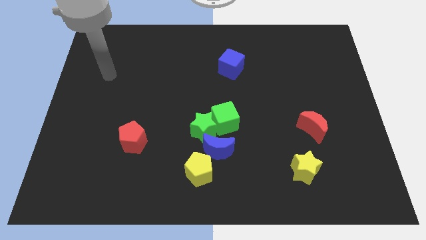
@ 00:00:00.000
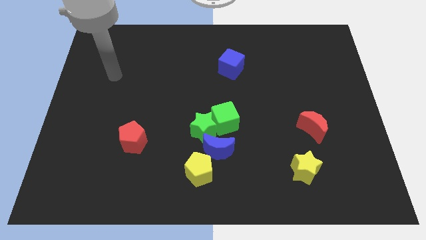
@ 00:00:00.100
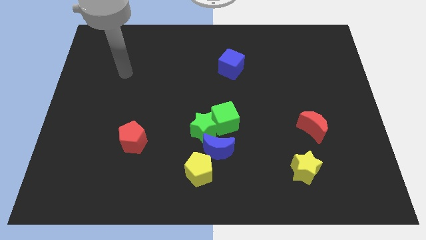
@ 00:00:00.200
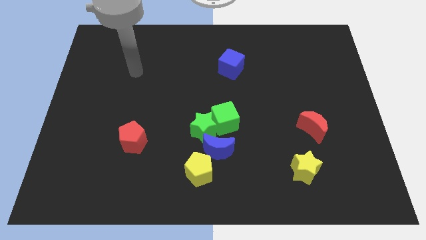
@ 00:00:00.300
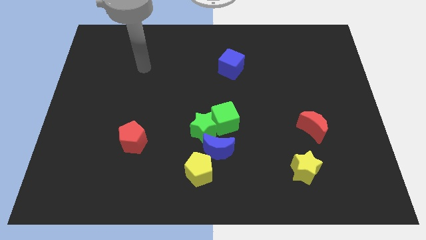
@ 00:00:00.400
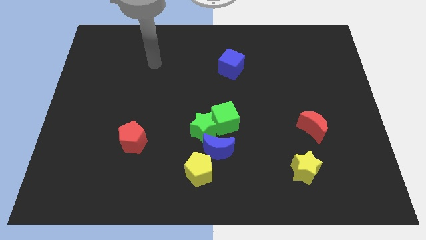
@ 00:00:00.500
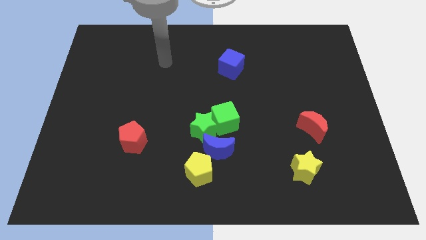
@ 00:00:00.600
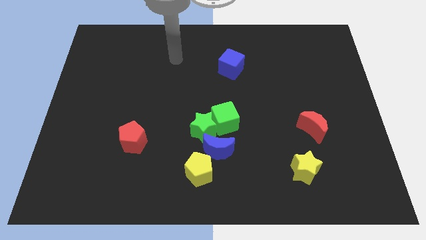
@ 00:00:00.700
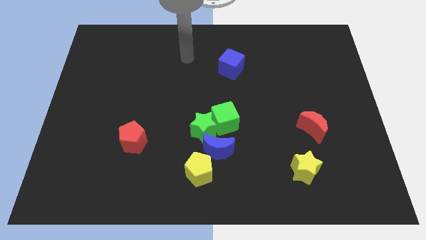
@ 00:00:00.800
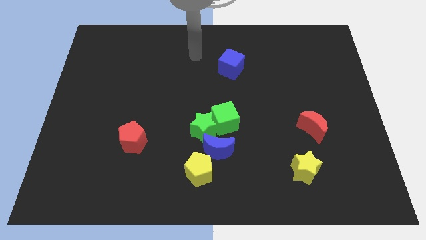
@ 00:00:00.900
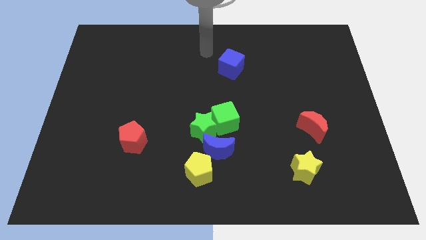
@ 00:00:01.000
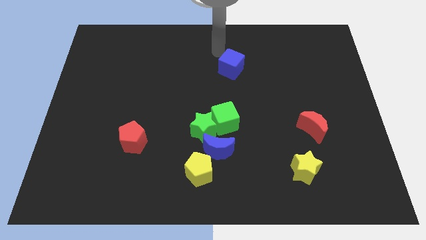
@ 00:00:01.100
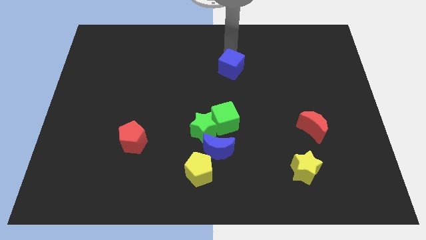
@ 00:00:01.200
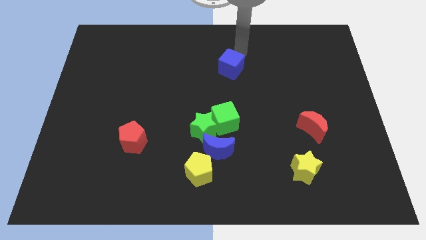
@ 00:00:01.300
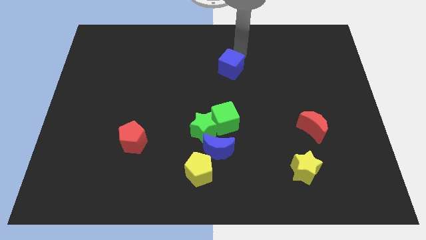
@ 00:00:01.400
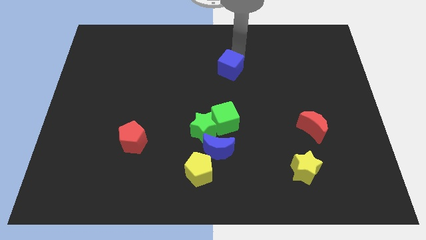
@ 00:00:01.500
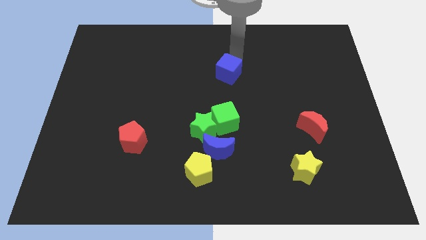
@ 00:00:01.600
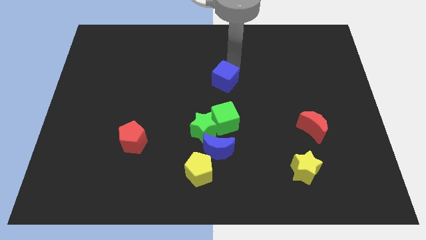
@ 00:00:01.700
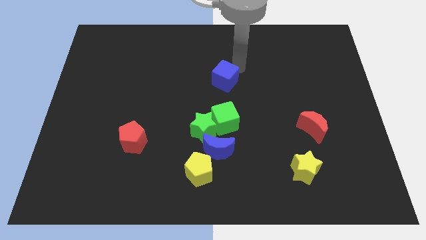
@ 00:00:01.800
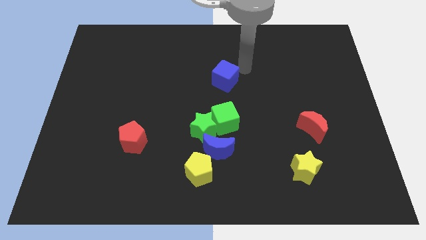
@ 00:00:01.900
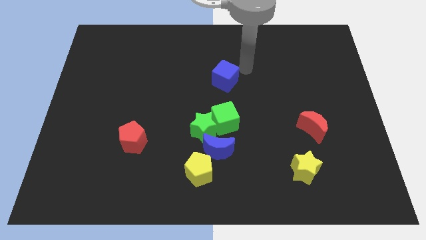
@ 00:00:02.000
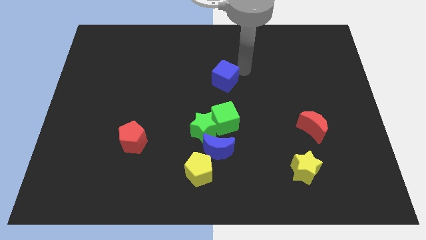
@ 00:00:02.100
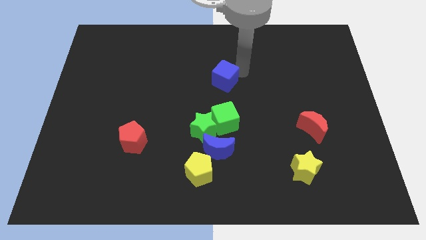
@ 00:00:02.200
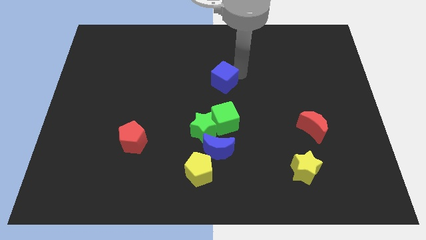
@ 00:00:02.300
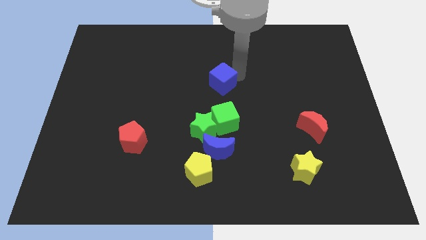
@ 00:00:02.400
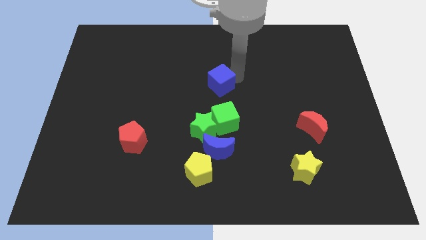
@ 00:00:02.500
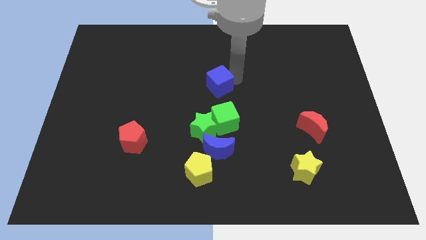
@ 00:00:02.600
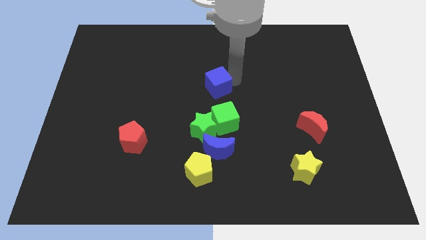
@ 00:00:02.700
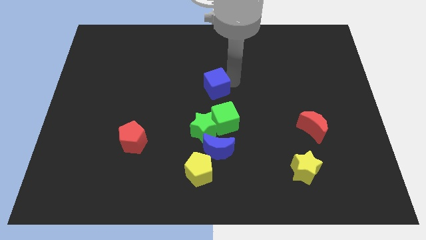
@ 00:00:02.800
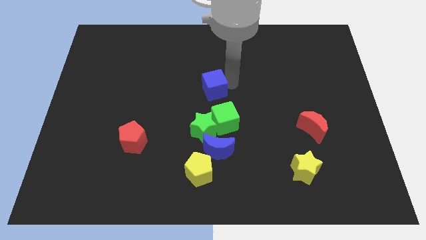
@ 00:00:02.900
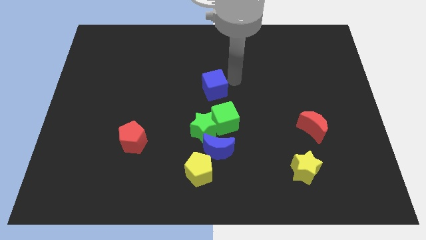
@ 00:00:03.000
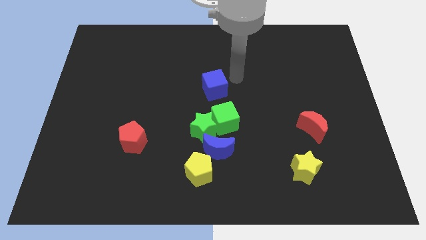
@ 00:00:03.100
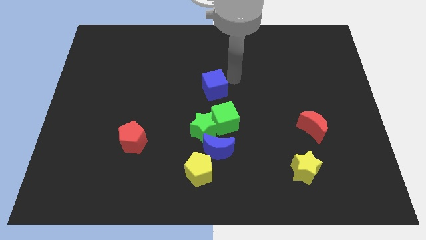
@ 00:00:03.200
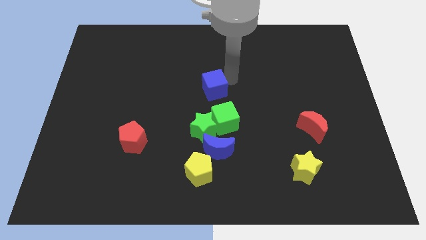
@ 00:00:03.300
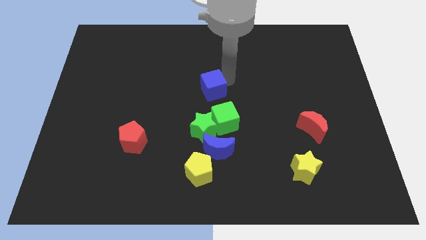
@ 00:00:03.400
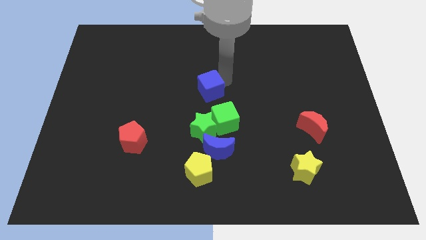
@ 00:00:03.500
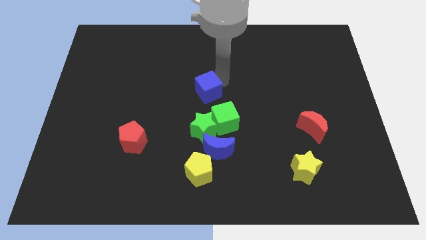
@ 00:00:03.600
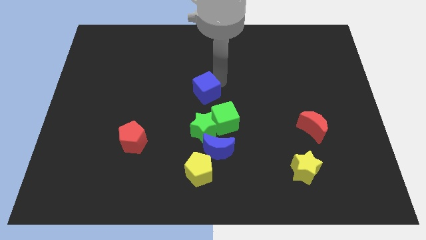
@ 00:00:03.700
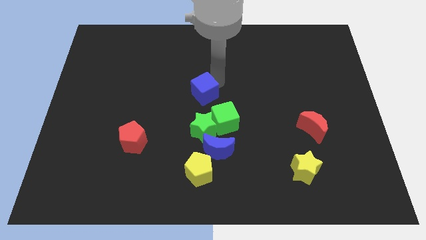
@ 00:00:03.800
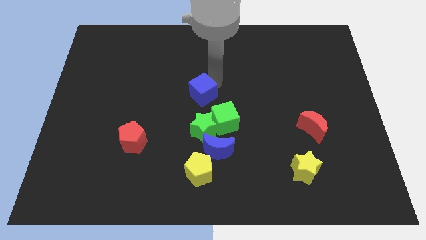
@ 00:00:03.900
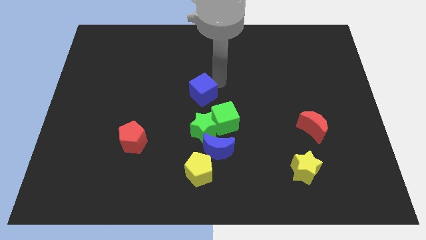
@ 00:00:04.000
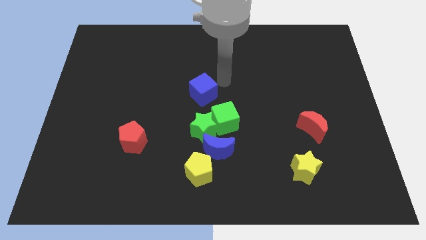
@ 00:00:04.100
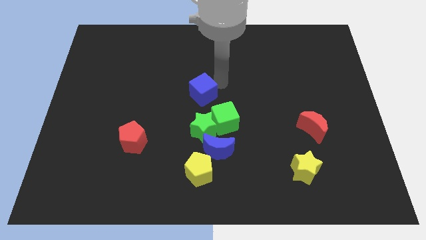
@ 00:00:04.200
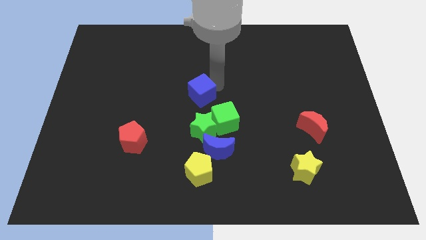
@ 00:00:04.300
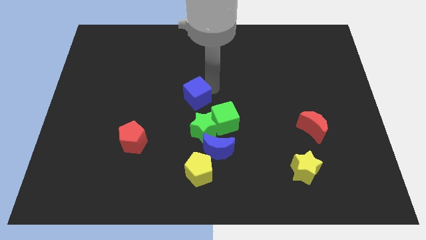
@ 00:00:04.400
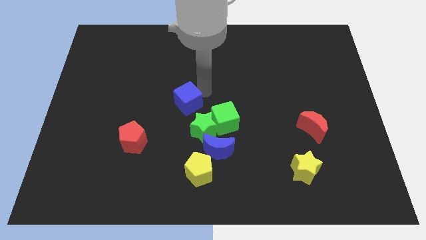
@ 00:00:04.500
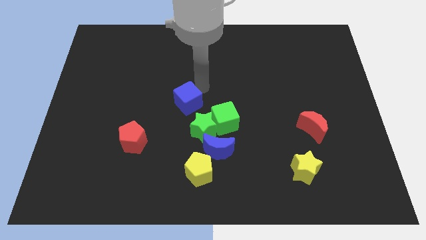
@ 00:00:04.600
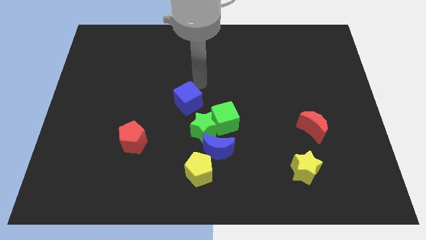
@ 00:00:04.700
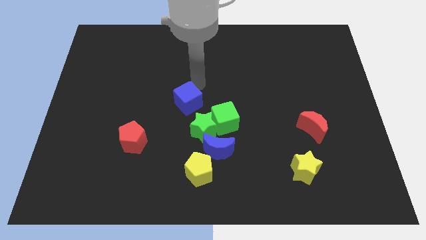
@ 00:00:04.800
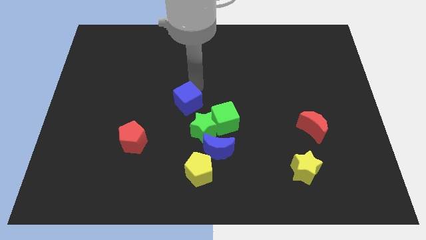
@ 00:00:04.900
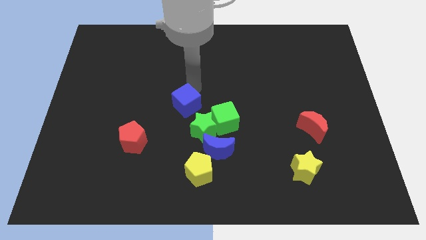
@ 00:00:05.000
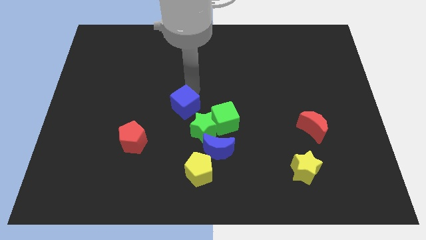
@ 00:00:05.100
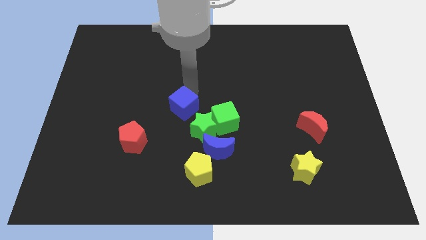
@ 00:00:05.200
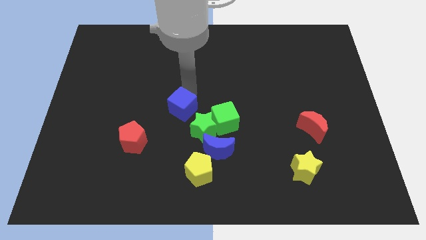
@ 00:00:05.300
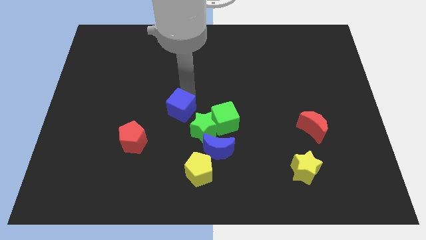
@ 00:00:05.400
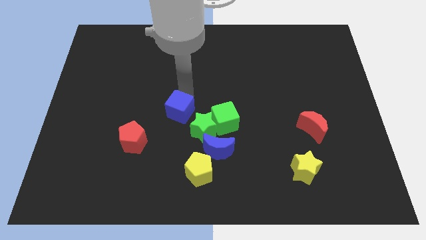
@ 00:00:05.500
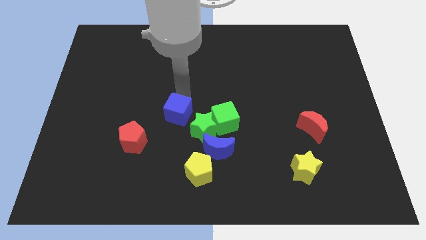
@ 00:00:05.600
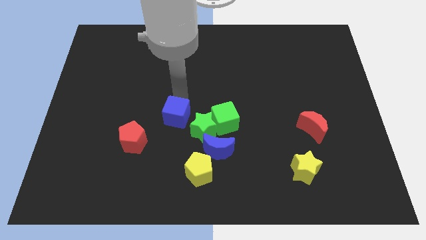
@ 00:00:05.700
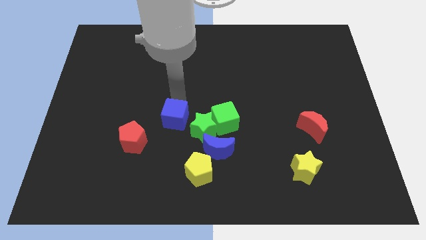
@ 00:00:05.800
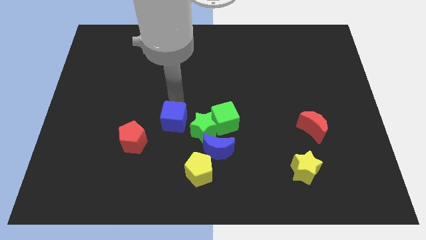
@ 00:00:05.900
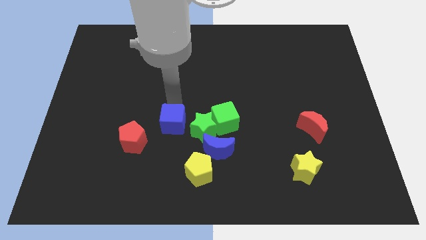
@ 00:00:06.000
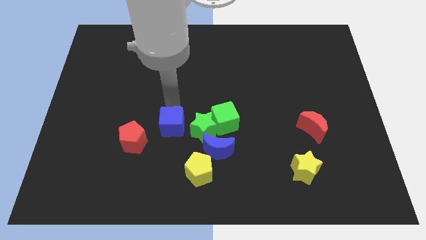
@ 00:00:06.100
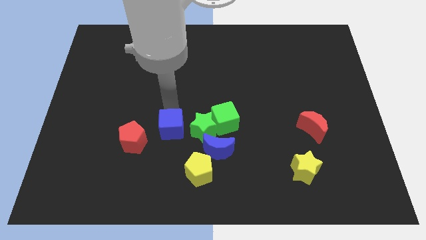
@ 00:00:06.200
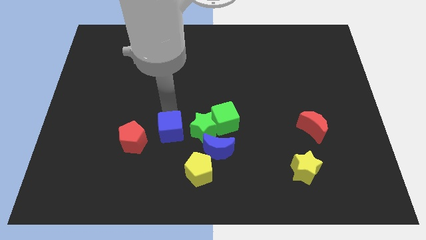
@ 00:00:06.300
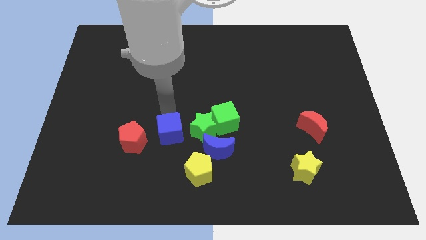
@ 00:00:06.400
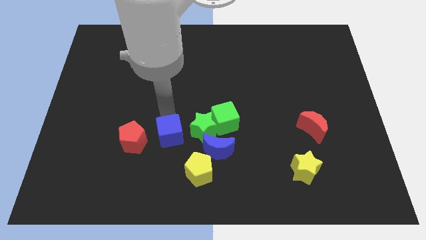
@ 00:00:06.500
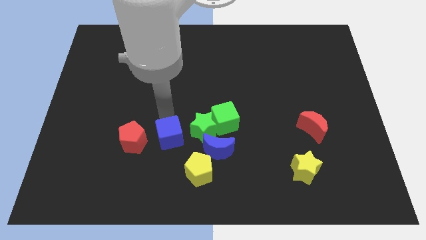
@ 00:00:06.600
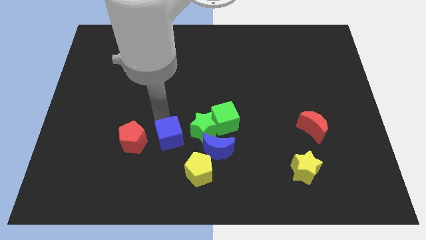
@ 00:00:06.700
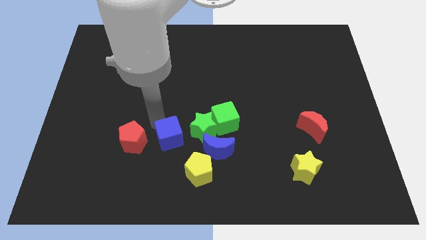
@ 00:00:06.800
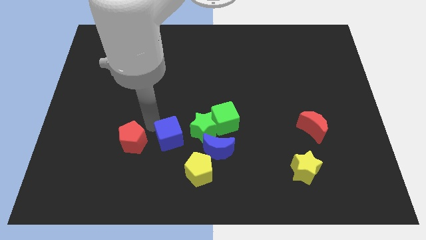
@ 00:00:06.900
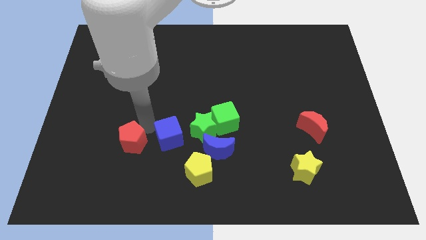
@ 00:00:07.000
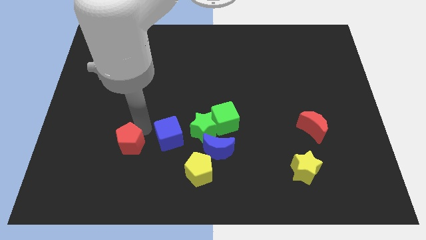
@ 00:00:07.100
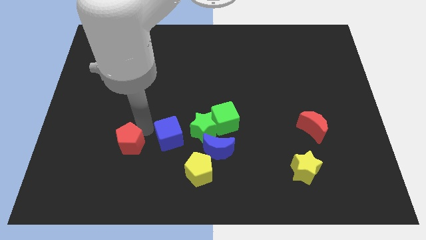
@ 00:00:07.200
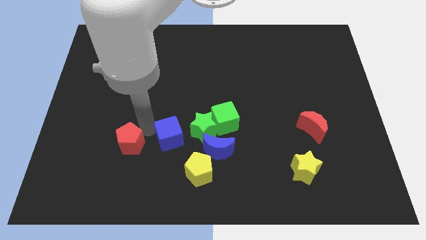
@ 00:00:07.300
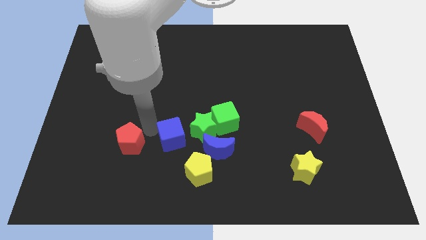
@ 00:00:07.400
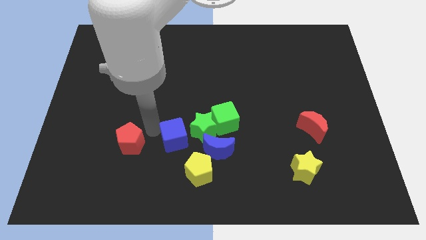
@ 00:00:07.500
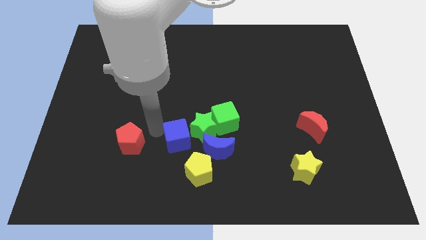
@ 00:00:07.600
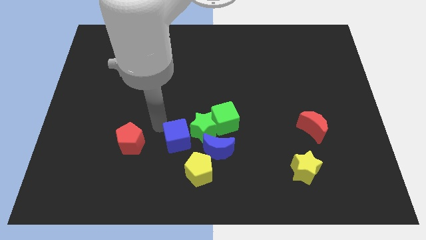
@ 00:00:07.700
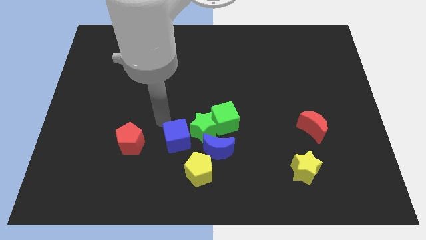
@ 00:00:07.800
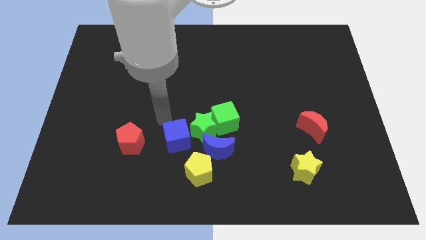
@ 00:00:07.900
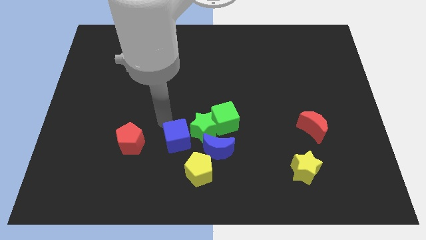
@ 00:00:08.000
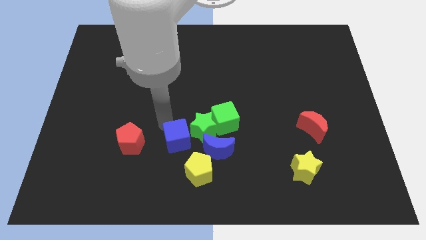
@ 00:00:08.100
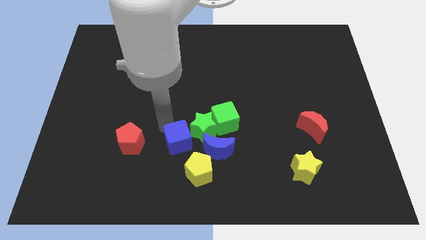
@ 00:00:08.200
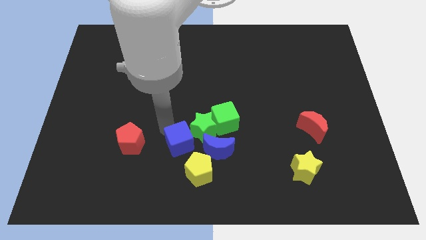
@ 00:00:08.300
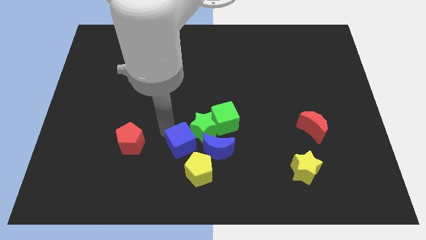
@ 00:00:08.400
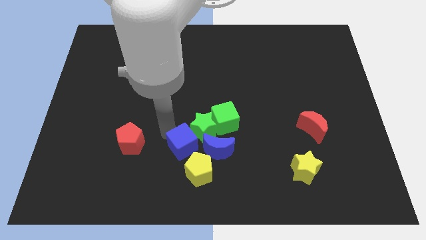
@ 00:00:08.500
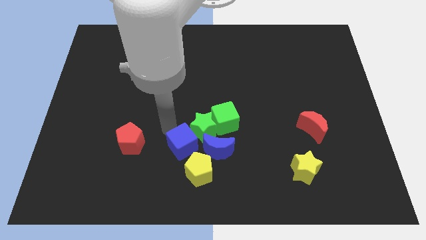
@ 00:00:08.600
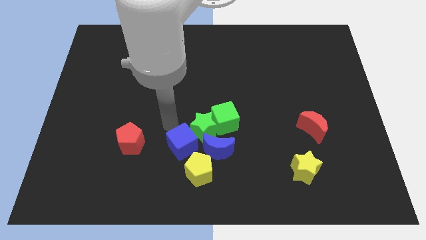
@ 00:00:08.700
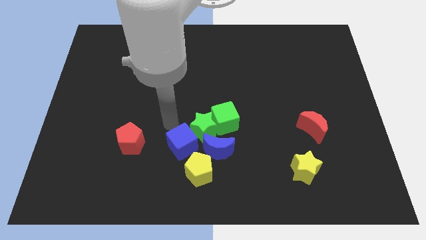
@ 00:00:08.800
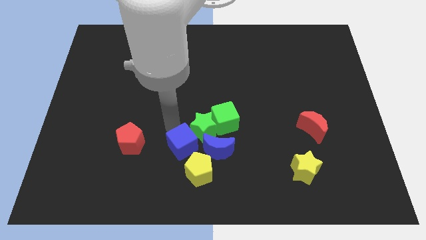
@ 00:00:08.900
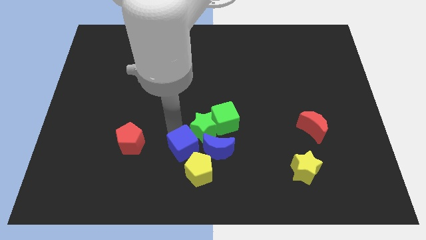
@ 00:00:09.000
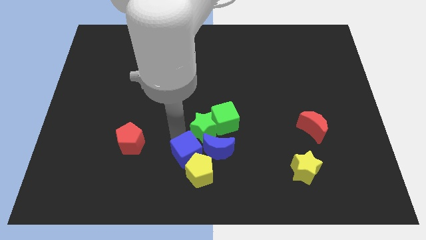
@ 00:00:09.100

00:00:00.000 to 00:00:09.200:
slide the blue cube close to the yellow pentagon
